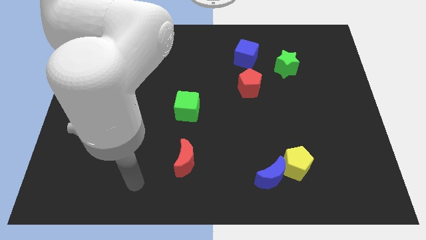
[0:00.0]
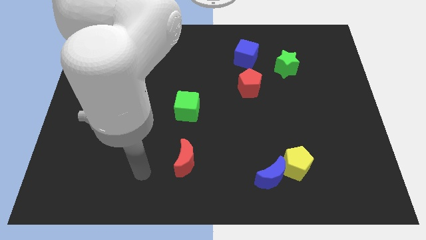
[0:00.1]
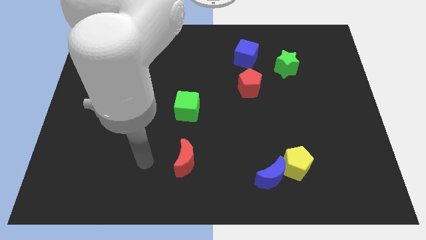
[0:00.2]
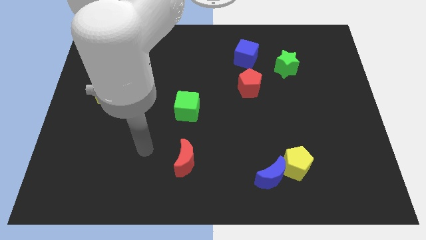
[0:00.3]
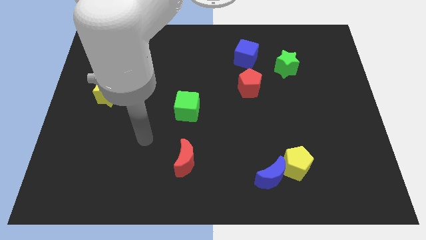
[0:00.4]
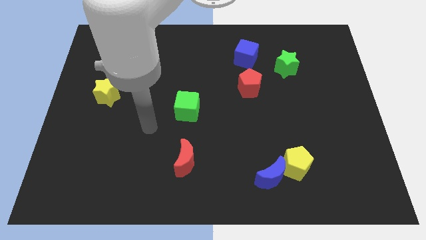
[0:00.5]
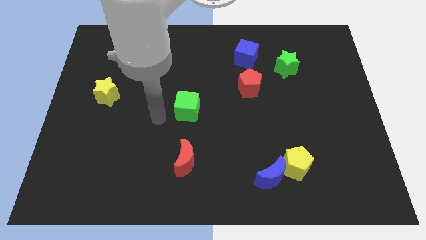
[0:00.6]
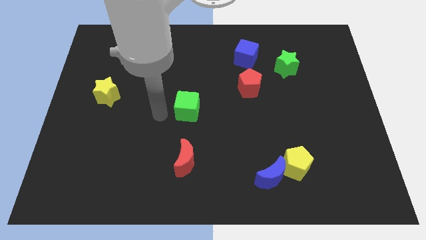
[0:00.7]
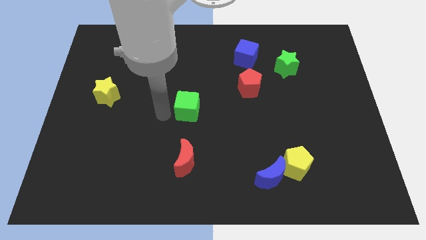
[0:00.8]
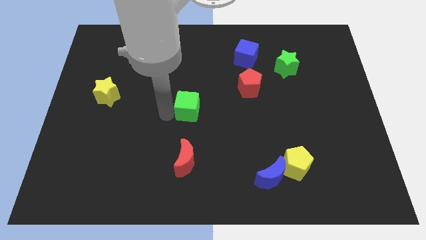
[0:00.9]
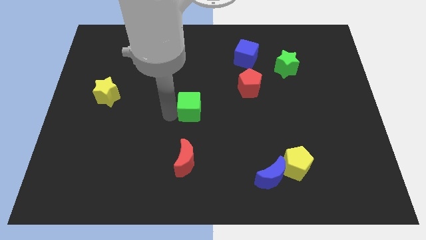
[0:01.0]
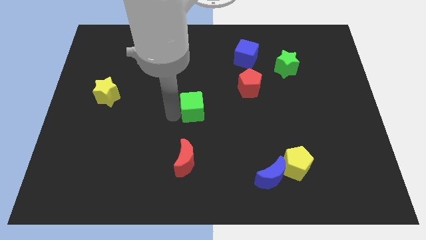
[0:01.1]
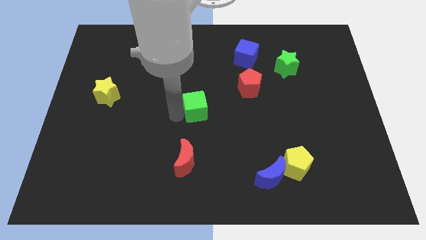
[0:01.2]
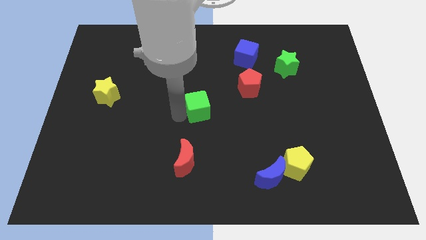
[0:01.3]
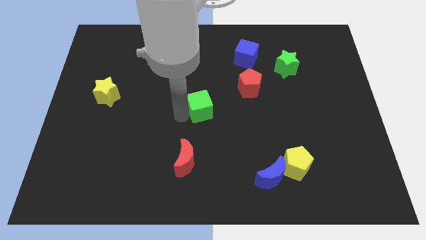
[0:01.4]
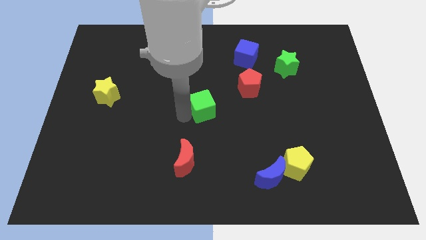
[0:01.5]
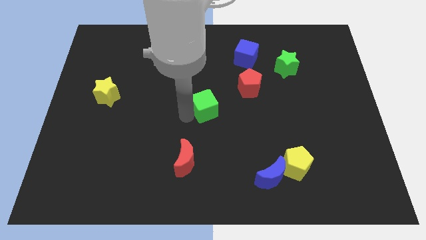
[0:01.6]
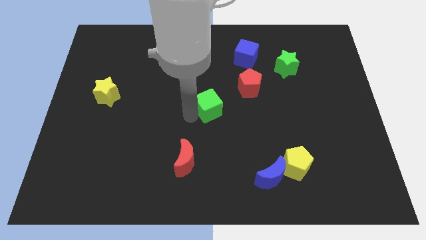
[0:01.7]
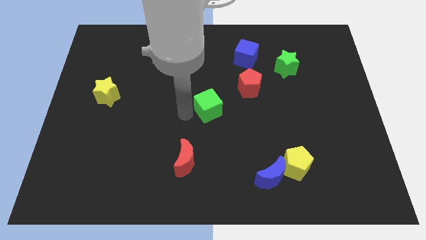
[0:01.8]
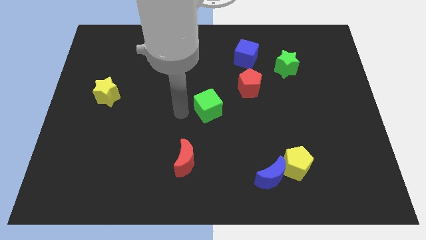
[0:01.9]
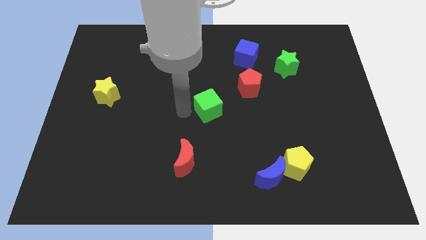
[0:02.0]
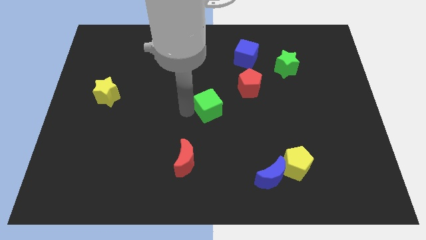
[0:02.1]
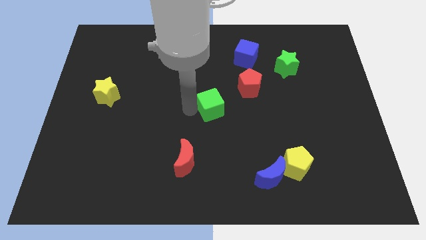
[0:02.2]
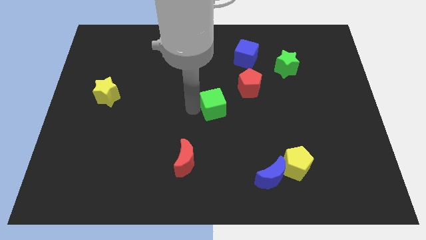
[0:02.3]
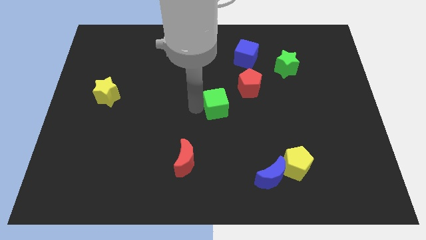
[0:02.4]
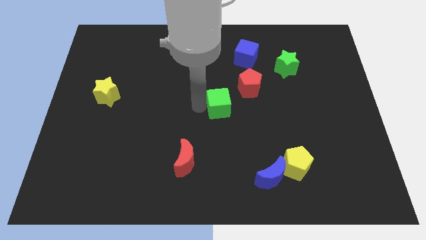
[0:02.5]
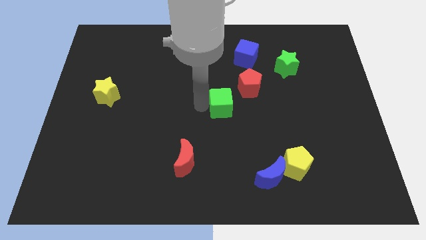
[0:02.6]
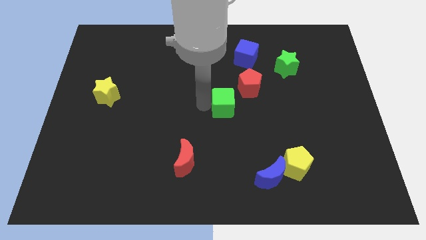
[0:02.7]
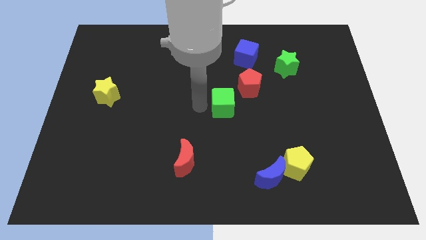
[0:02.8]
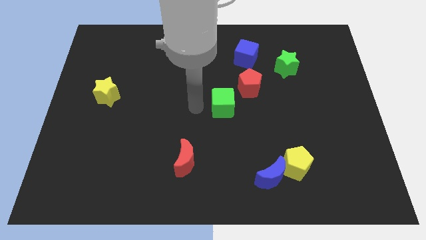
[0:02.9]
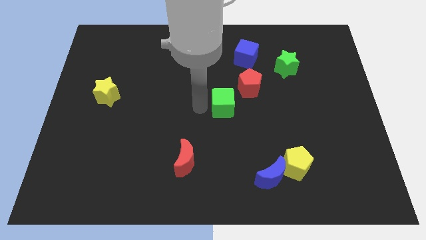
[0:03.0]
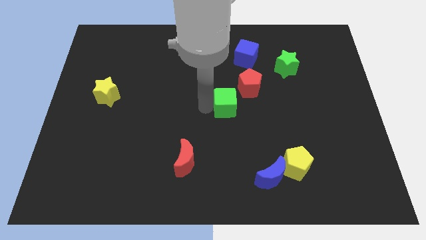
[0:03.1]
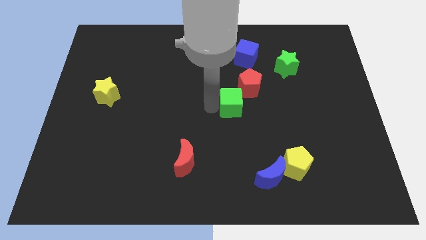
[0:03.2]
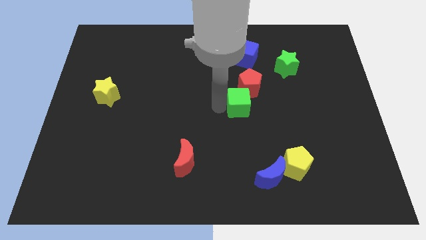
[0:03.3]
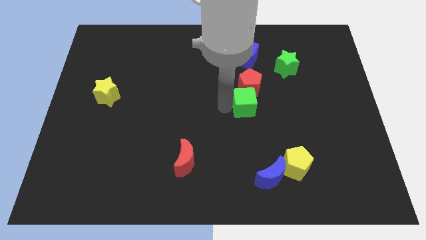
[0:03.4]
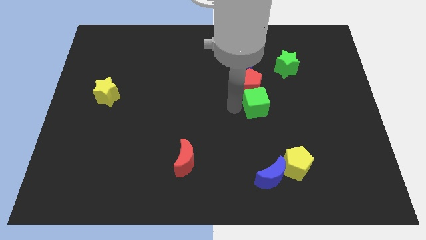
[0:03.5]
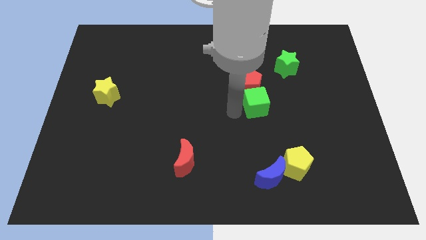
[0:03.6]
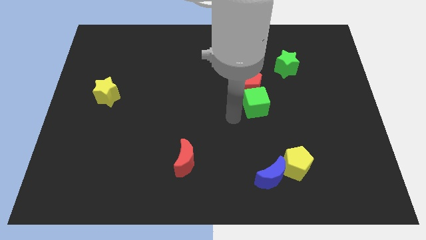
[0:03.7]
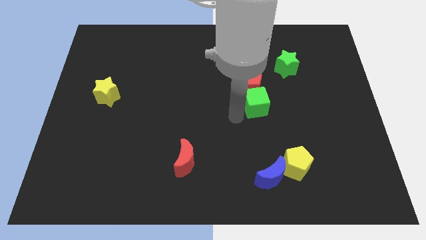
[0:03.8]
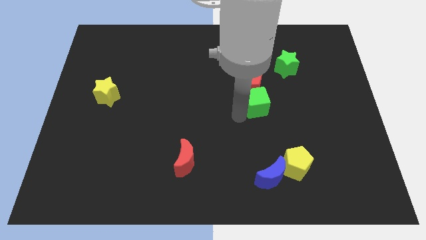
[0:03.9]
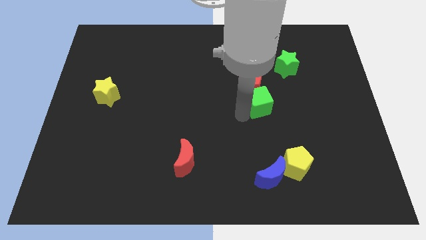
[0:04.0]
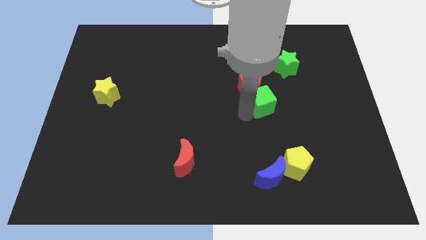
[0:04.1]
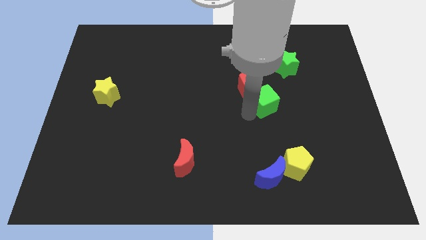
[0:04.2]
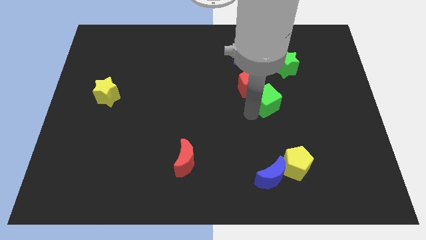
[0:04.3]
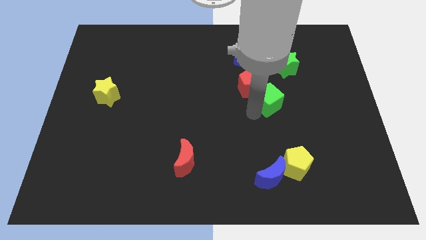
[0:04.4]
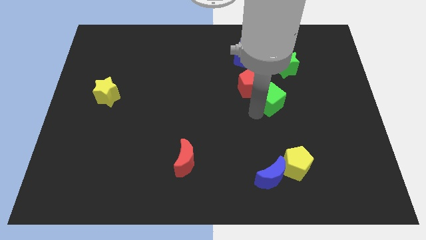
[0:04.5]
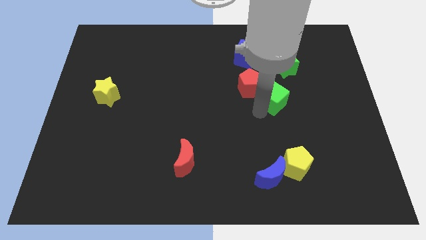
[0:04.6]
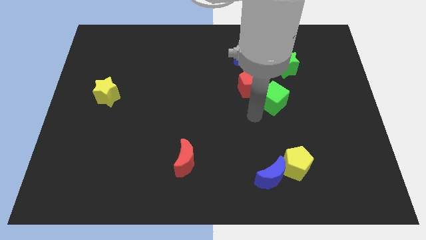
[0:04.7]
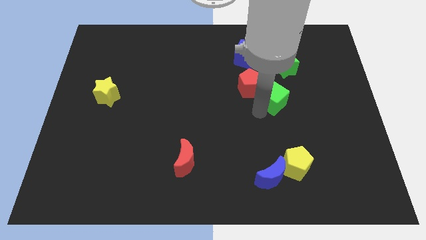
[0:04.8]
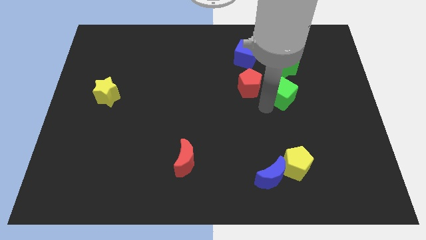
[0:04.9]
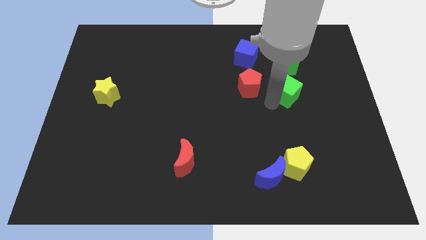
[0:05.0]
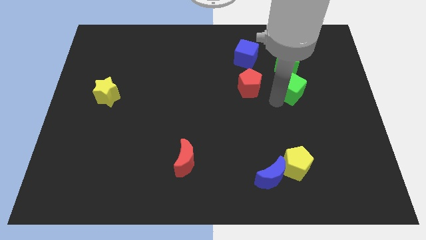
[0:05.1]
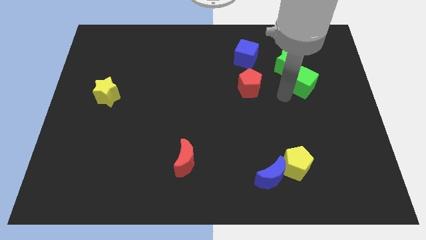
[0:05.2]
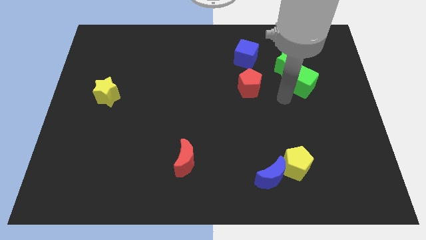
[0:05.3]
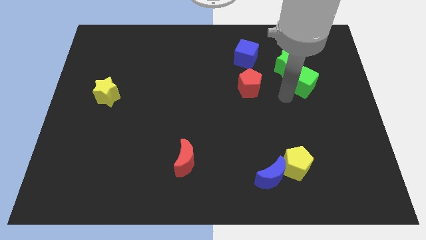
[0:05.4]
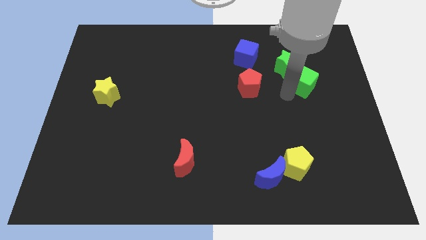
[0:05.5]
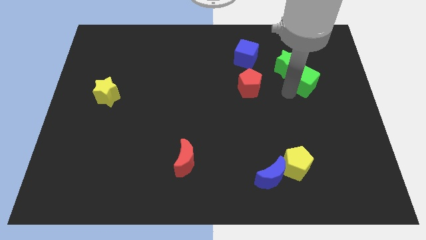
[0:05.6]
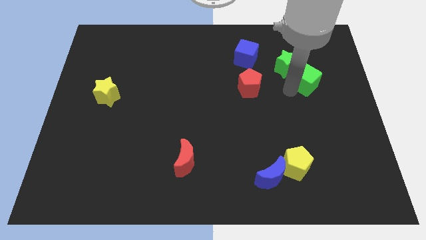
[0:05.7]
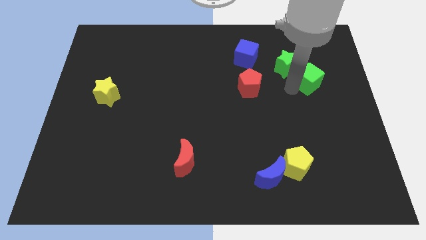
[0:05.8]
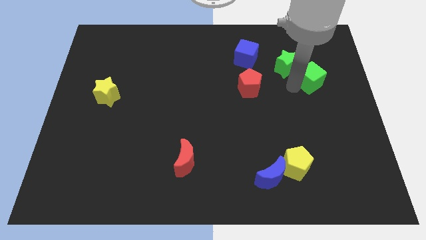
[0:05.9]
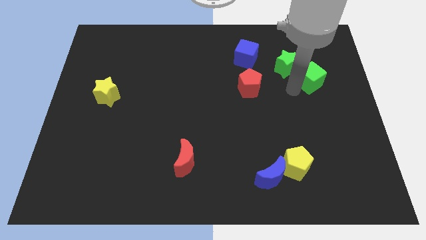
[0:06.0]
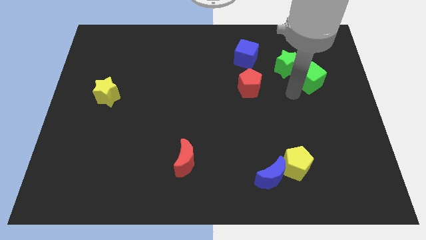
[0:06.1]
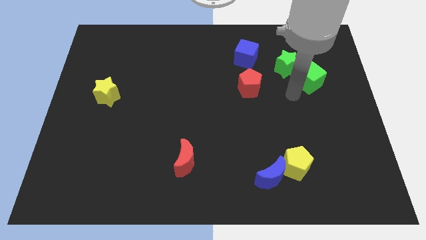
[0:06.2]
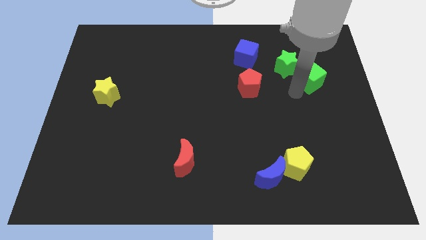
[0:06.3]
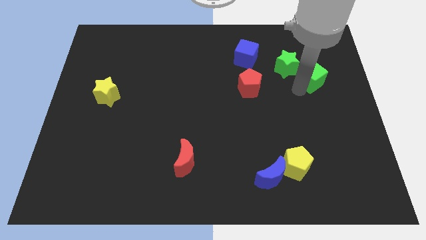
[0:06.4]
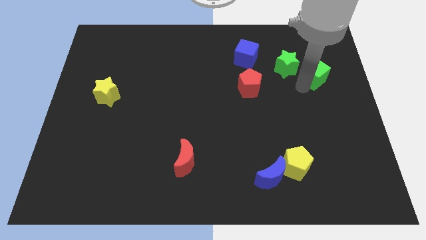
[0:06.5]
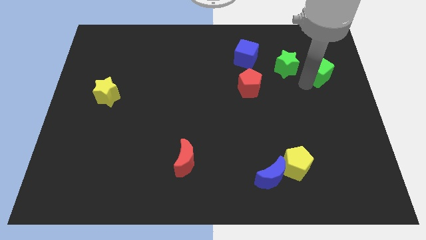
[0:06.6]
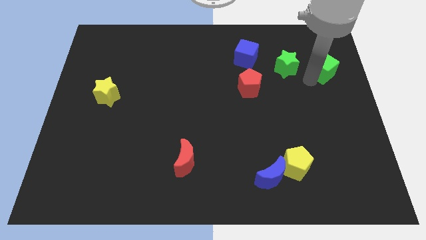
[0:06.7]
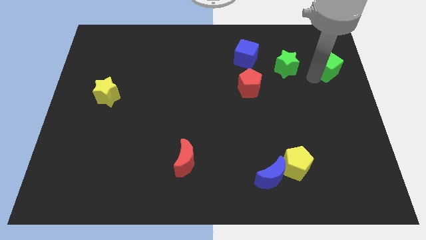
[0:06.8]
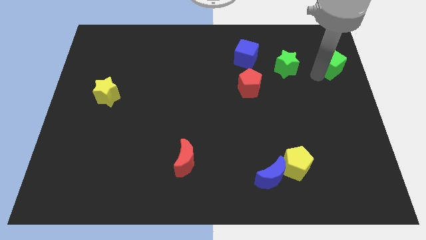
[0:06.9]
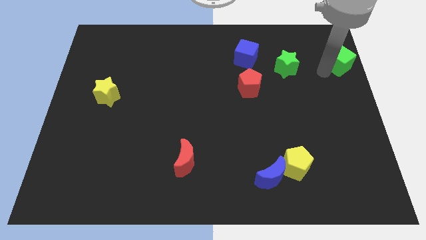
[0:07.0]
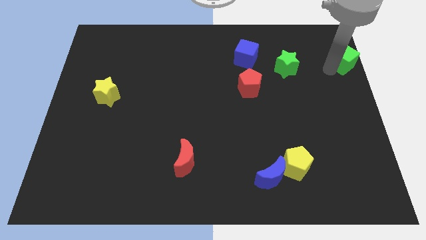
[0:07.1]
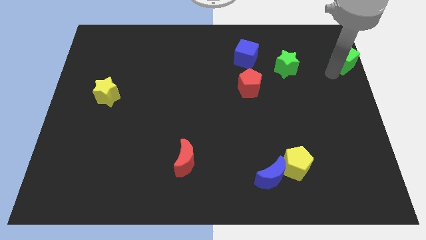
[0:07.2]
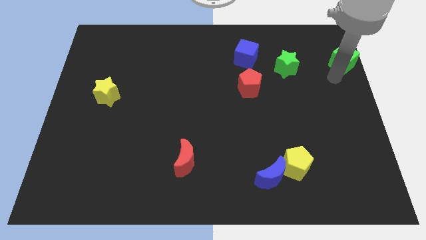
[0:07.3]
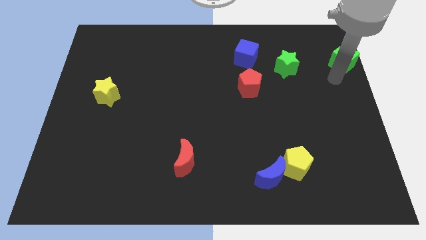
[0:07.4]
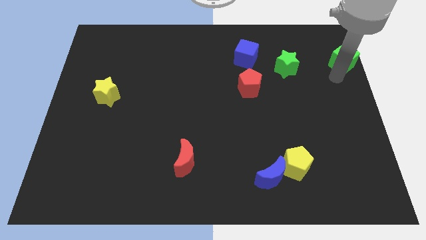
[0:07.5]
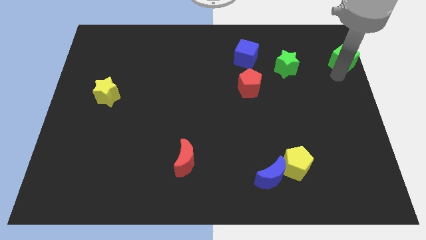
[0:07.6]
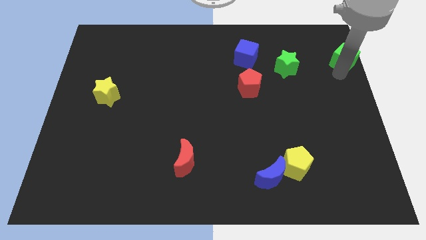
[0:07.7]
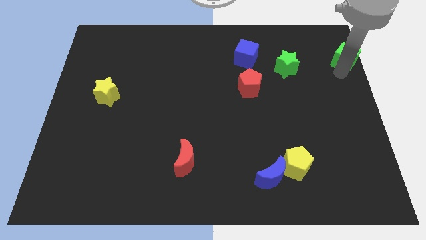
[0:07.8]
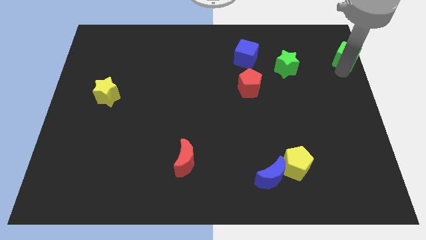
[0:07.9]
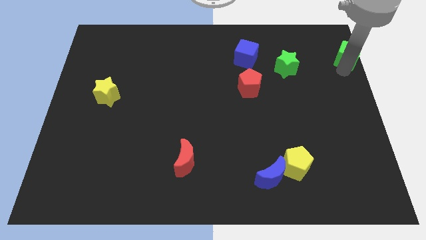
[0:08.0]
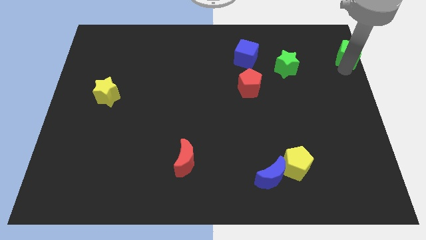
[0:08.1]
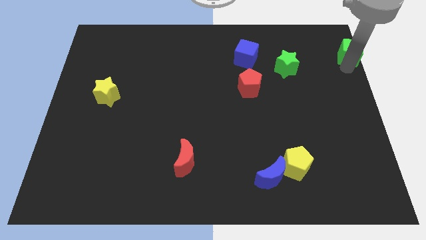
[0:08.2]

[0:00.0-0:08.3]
put the green cube to the upper right corner
